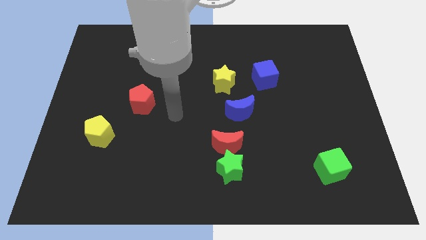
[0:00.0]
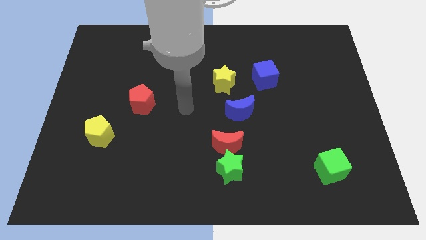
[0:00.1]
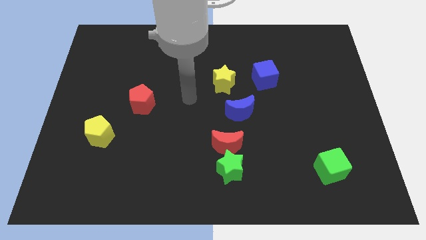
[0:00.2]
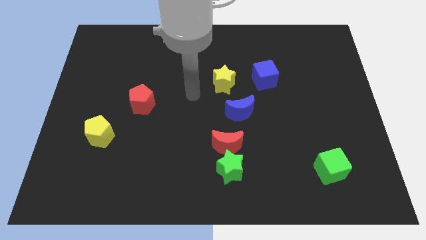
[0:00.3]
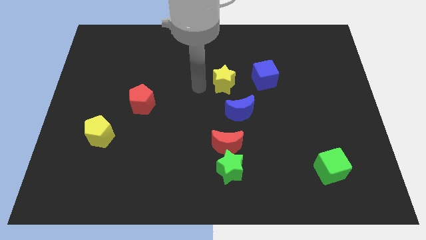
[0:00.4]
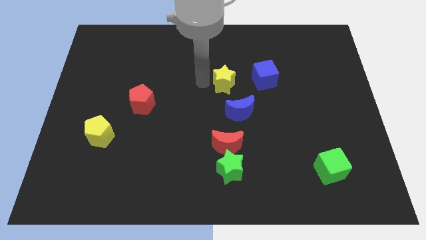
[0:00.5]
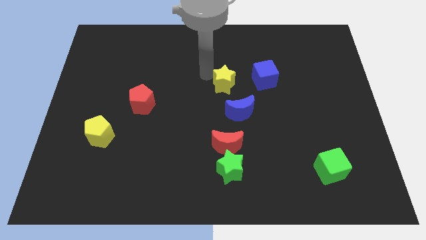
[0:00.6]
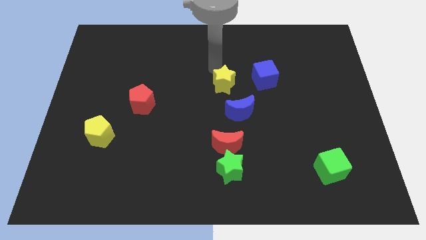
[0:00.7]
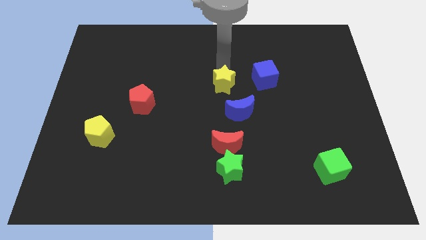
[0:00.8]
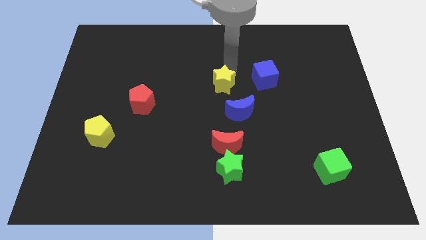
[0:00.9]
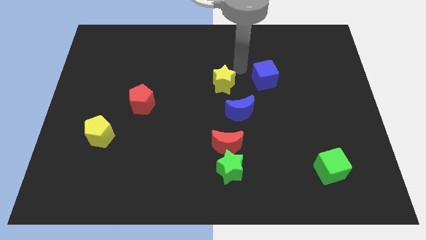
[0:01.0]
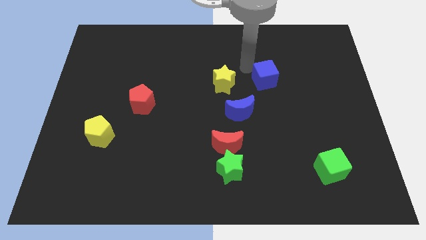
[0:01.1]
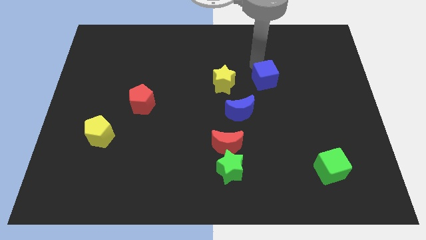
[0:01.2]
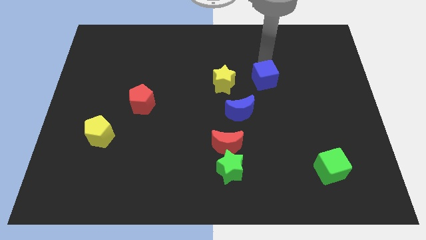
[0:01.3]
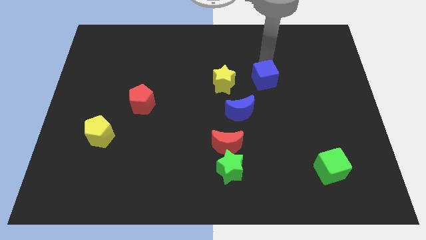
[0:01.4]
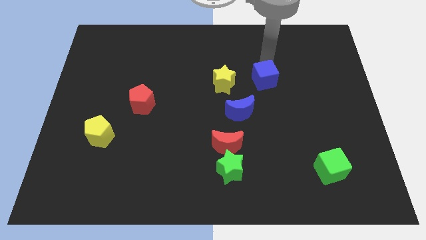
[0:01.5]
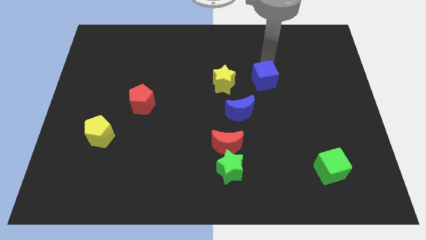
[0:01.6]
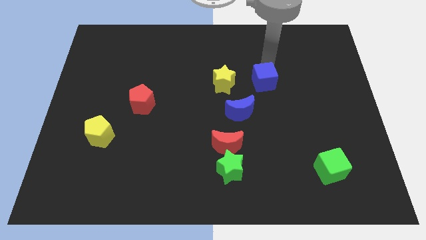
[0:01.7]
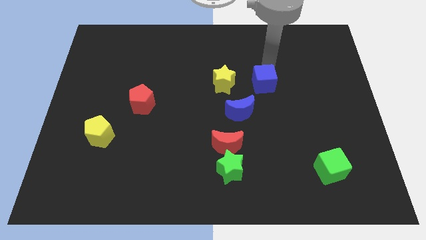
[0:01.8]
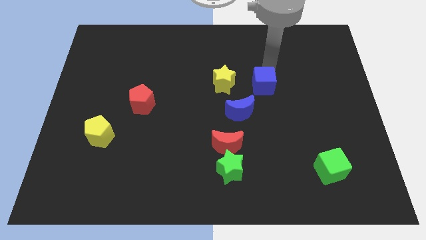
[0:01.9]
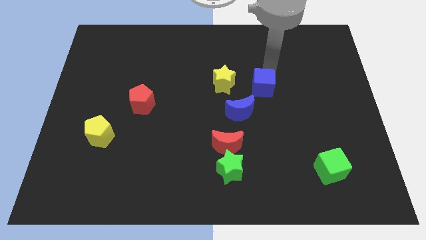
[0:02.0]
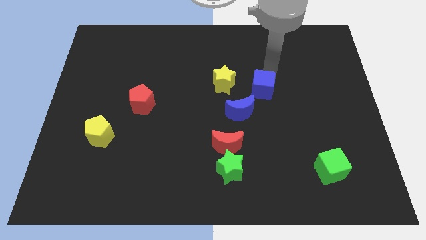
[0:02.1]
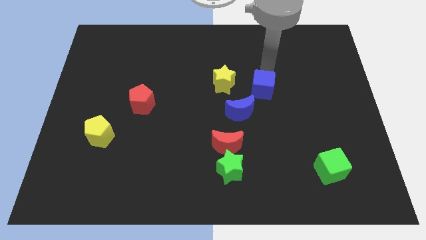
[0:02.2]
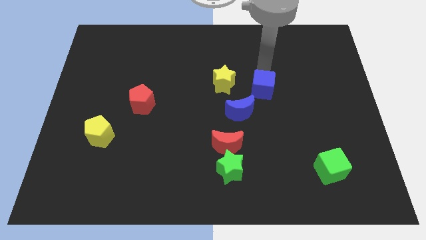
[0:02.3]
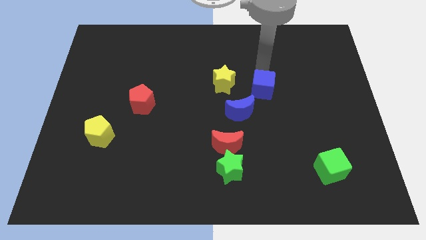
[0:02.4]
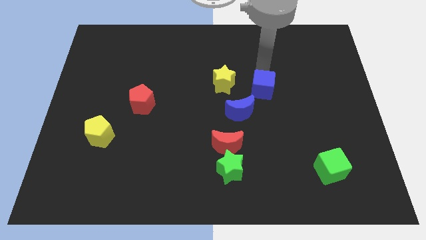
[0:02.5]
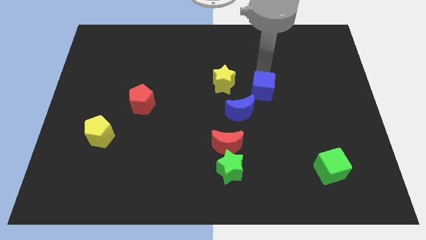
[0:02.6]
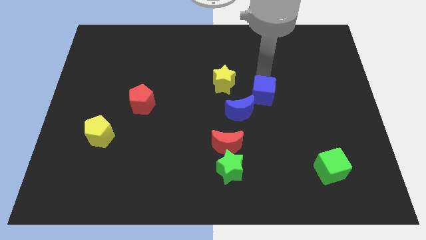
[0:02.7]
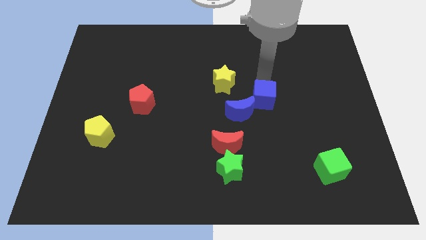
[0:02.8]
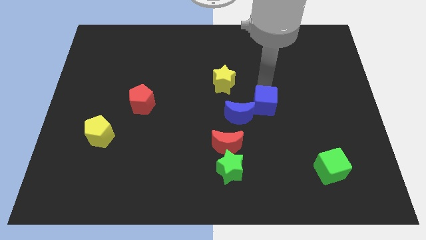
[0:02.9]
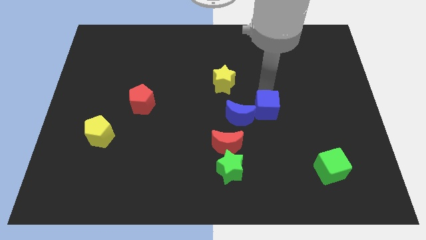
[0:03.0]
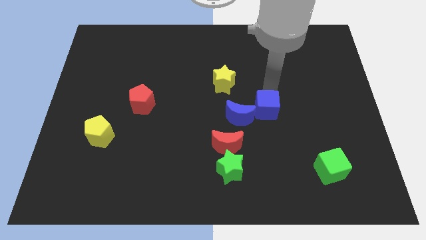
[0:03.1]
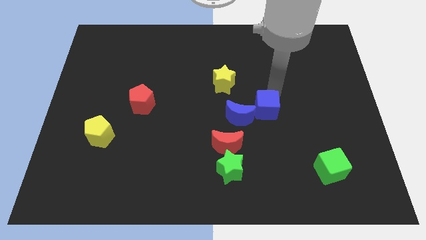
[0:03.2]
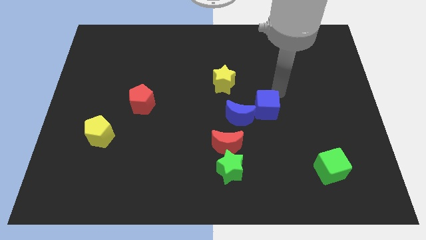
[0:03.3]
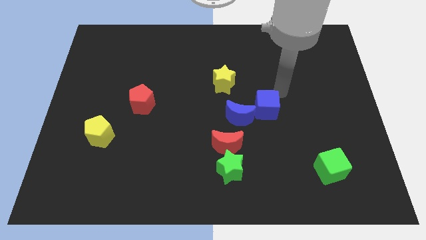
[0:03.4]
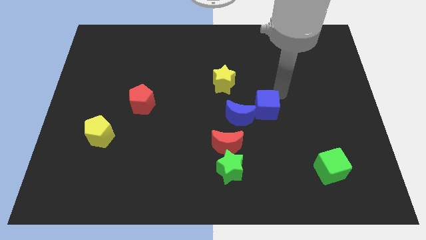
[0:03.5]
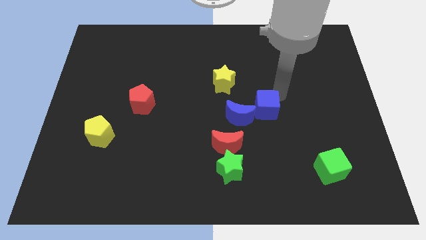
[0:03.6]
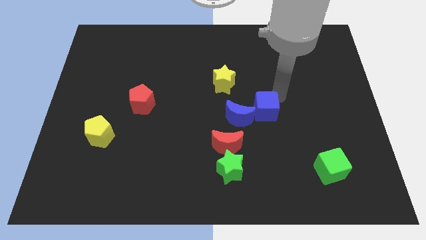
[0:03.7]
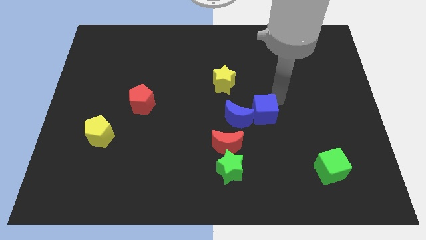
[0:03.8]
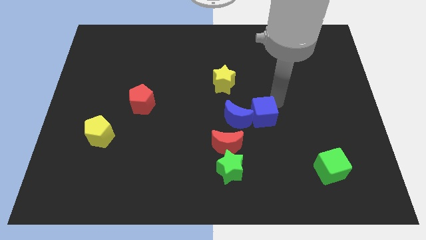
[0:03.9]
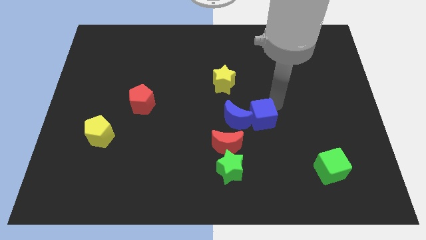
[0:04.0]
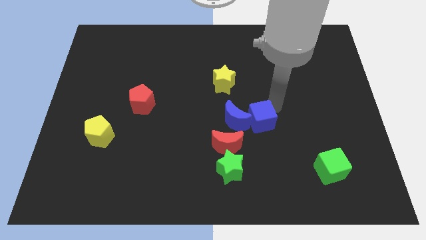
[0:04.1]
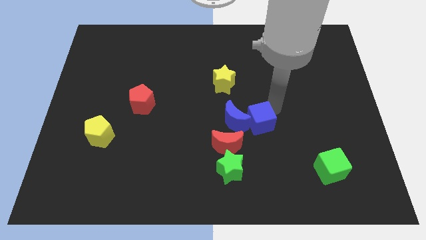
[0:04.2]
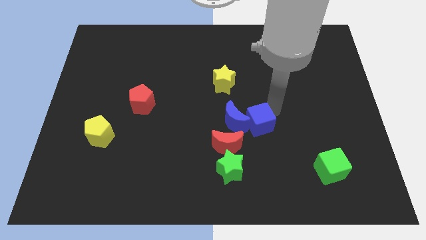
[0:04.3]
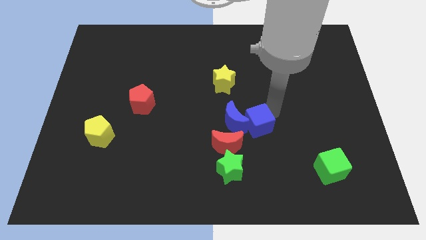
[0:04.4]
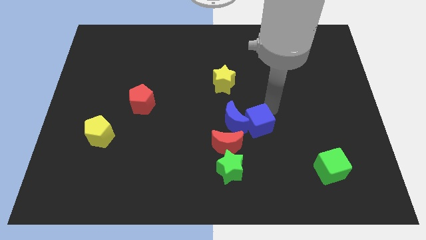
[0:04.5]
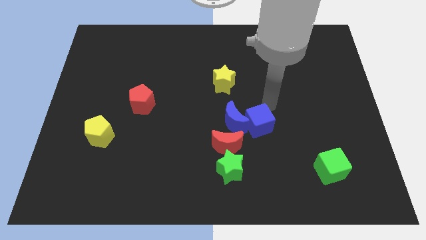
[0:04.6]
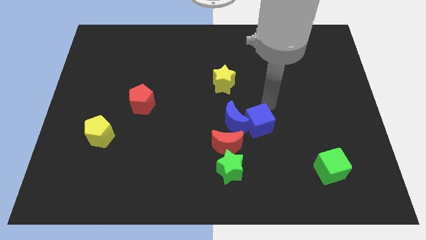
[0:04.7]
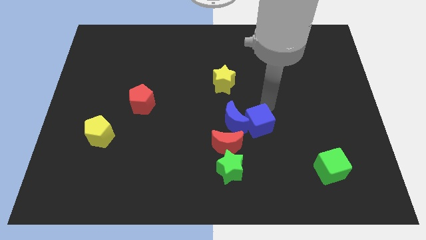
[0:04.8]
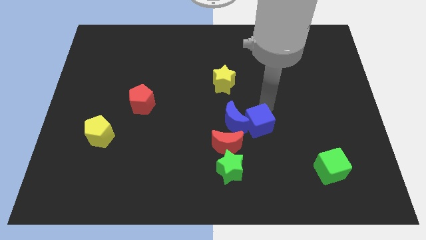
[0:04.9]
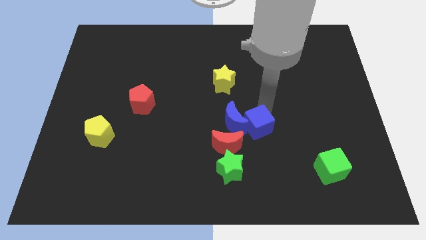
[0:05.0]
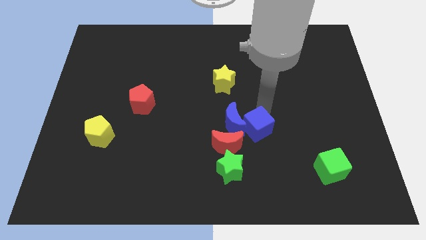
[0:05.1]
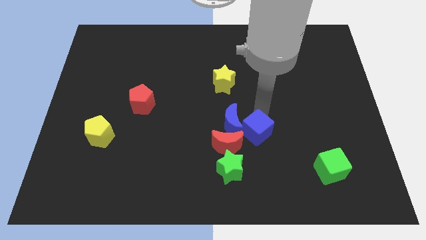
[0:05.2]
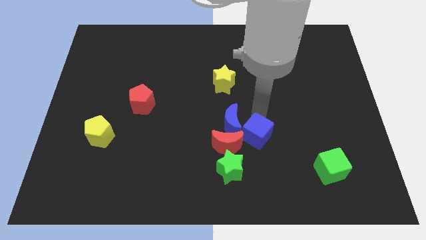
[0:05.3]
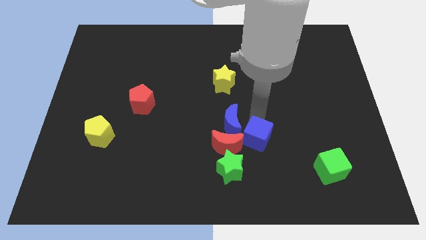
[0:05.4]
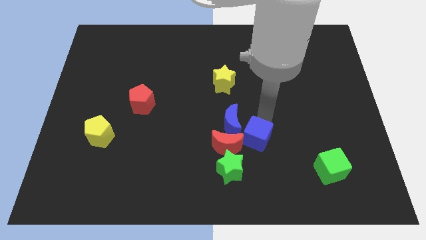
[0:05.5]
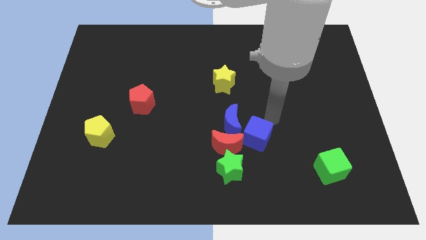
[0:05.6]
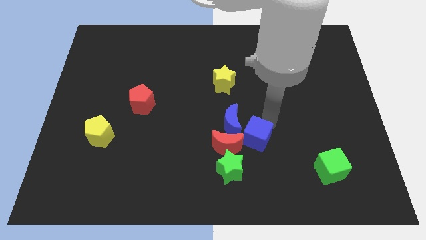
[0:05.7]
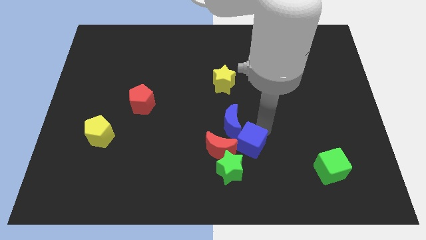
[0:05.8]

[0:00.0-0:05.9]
put the blue cube below the blue moon
